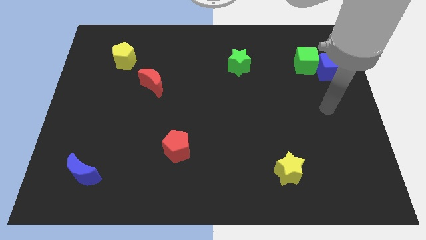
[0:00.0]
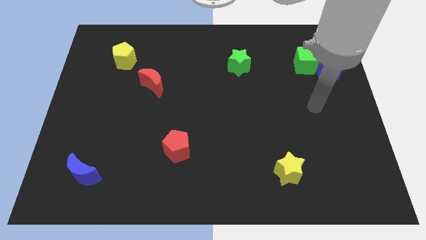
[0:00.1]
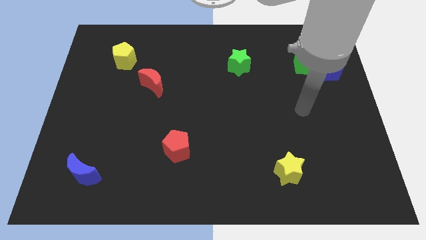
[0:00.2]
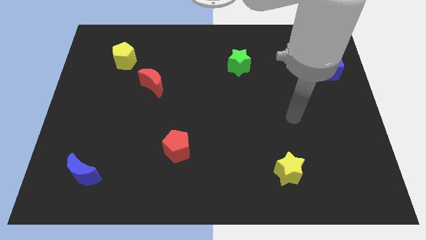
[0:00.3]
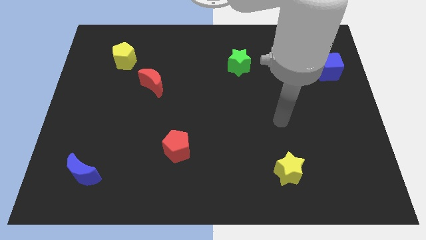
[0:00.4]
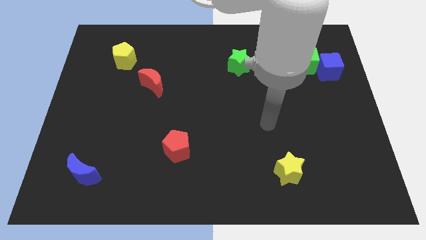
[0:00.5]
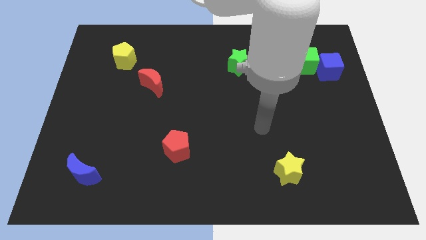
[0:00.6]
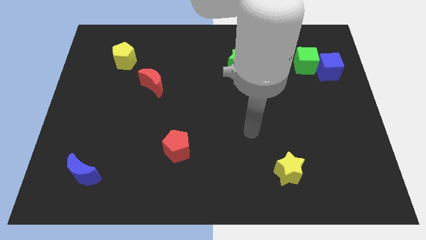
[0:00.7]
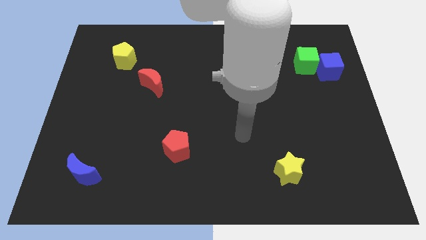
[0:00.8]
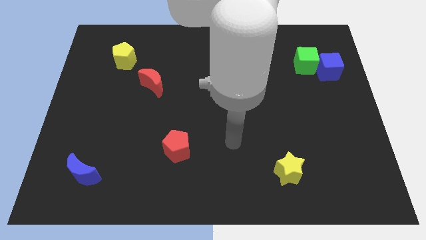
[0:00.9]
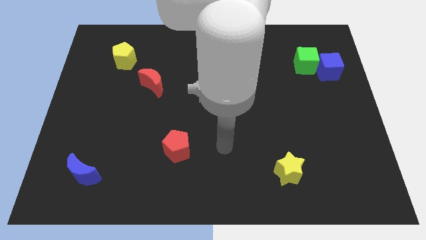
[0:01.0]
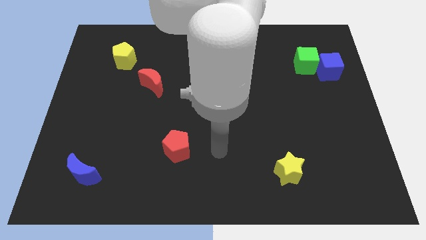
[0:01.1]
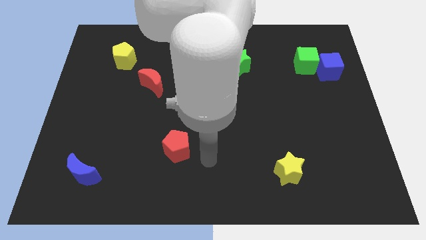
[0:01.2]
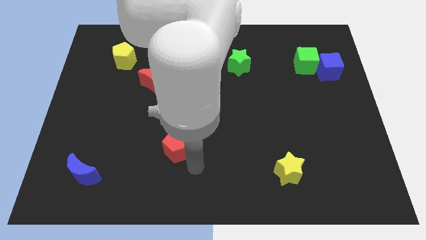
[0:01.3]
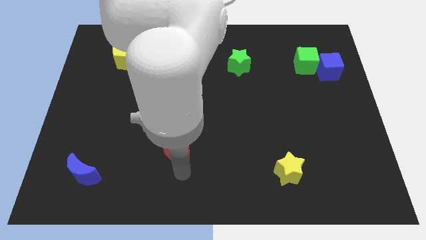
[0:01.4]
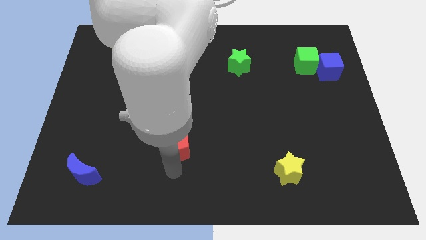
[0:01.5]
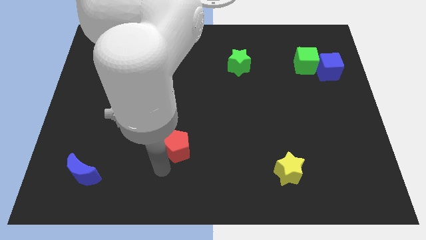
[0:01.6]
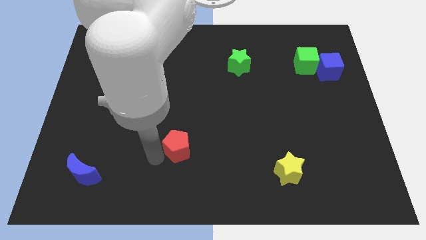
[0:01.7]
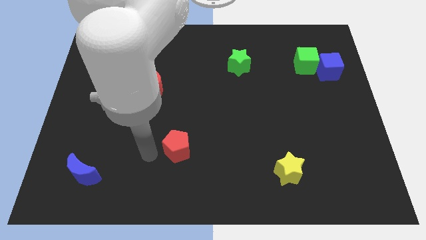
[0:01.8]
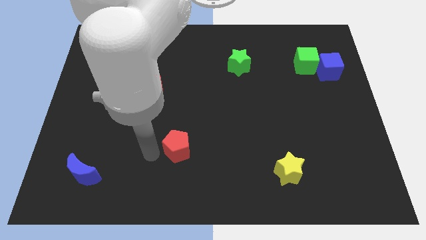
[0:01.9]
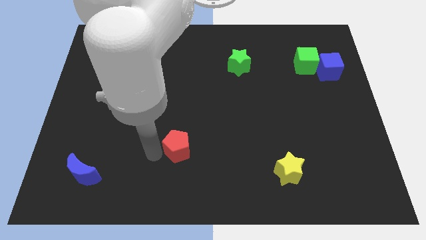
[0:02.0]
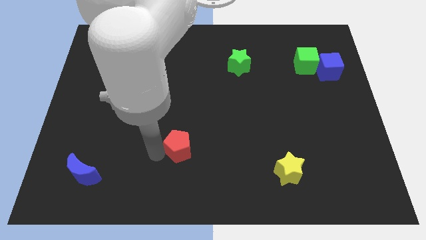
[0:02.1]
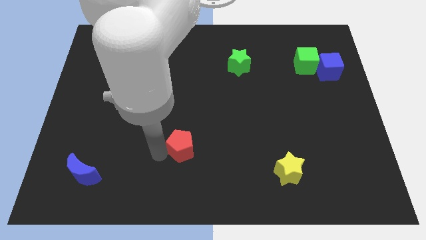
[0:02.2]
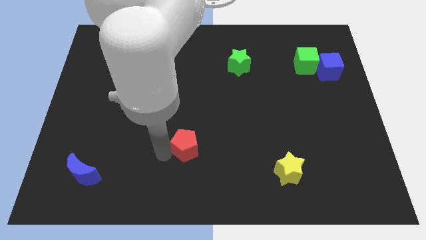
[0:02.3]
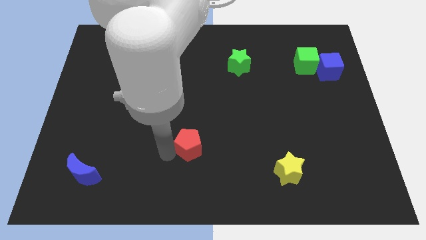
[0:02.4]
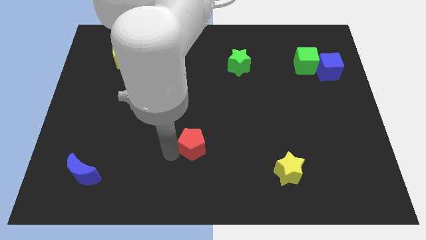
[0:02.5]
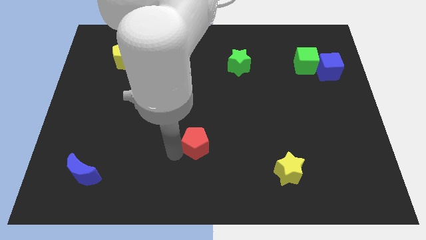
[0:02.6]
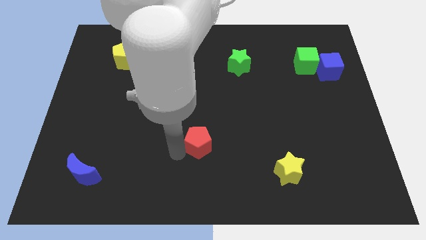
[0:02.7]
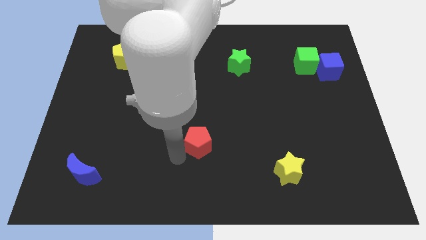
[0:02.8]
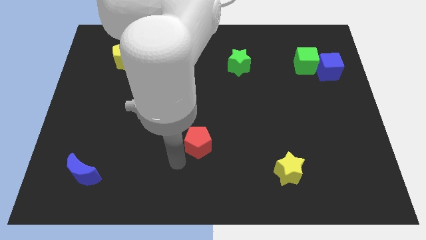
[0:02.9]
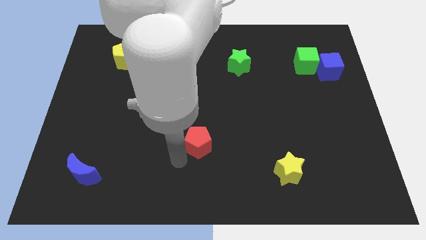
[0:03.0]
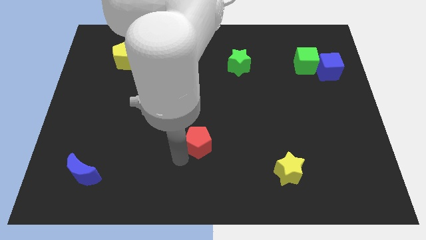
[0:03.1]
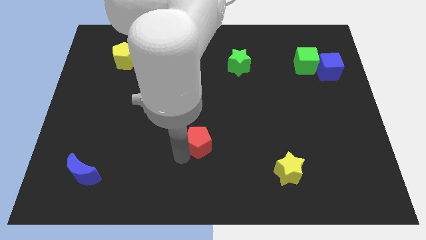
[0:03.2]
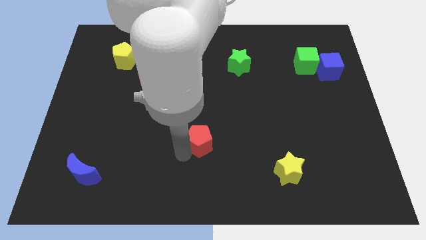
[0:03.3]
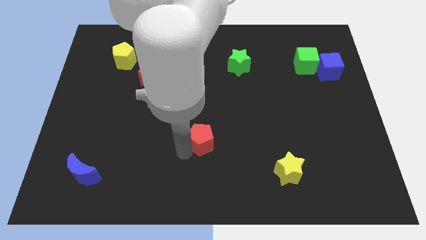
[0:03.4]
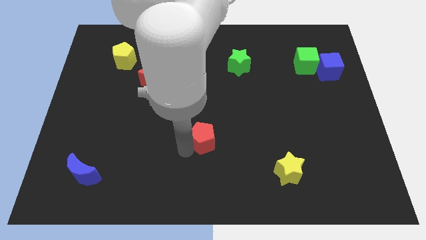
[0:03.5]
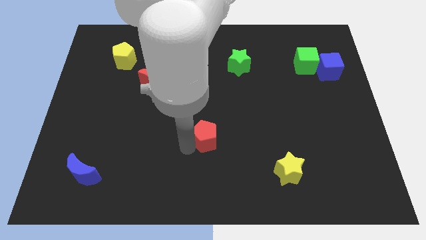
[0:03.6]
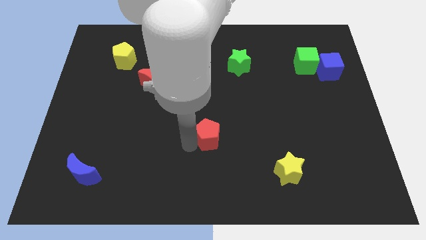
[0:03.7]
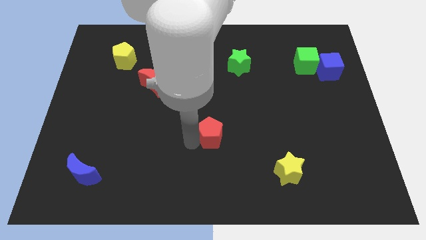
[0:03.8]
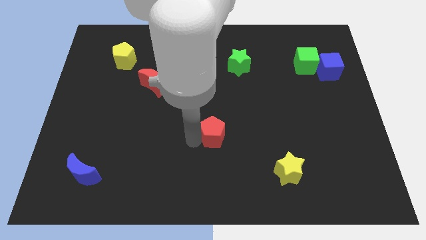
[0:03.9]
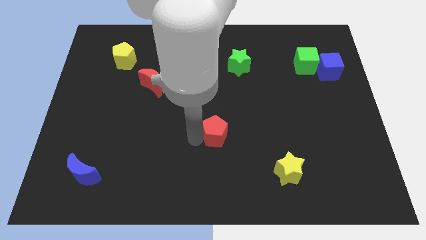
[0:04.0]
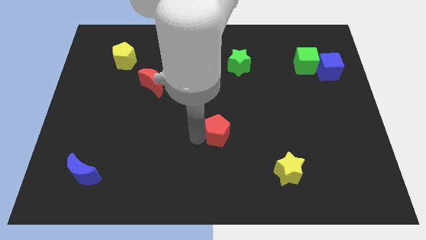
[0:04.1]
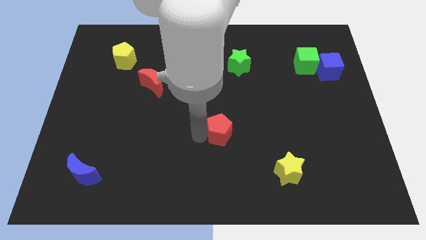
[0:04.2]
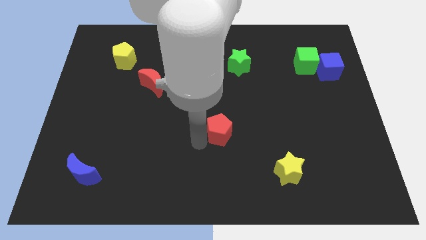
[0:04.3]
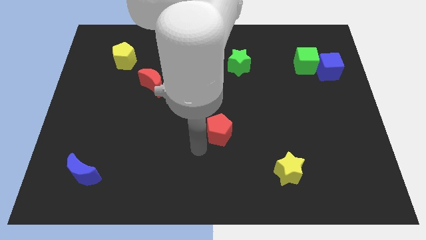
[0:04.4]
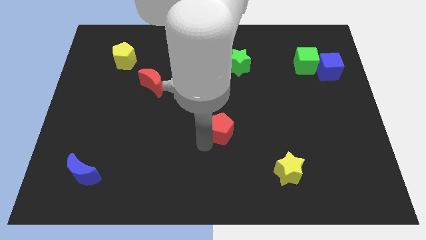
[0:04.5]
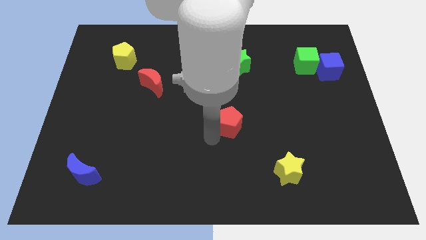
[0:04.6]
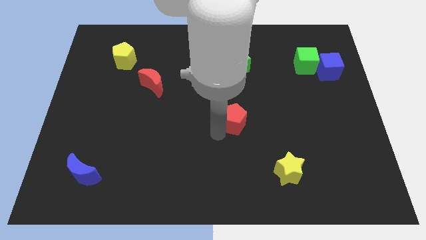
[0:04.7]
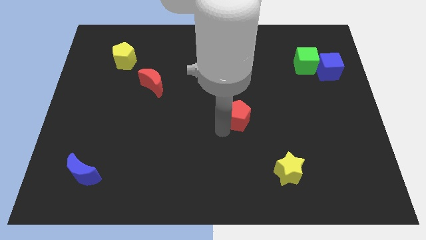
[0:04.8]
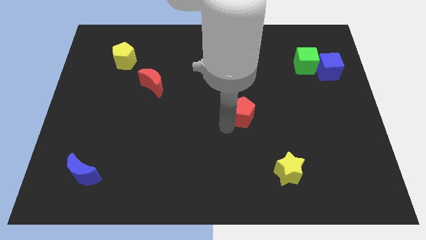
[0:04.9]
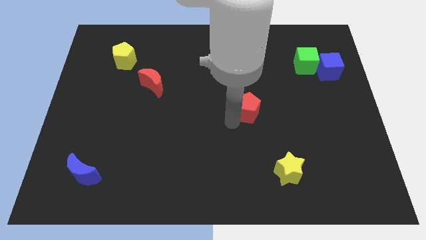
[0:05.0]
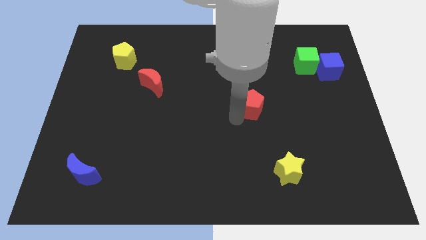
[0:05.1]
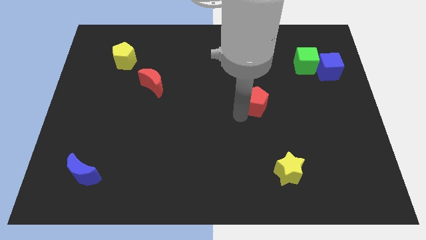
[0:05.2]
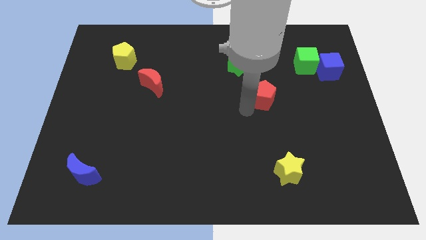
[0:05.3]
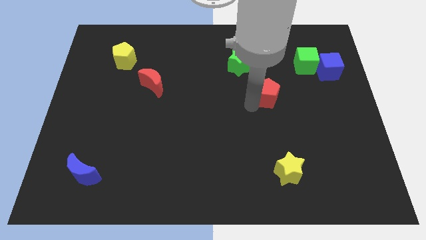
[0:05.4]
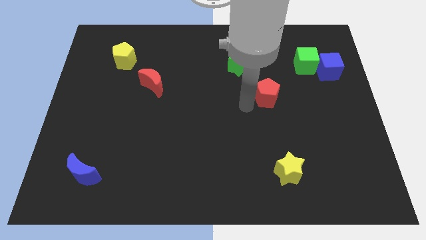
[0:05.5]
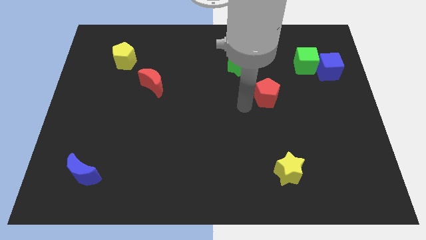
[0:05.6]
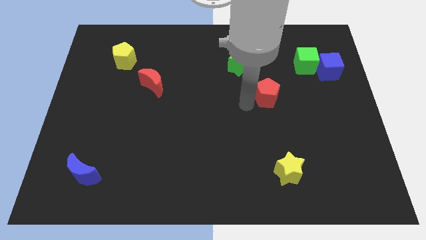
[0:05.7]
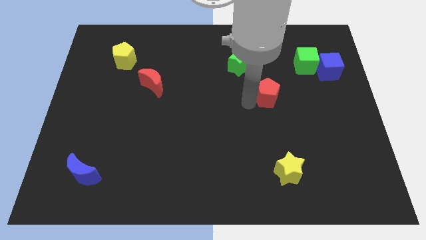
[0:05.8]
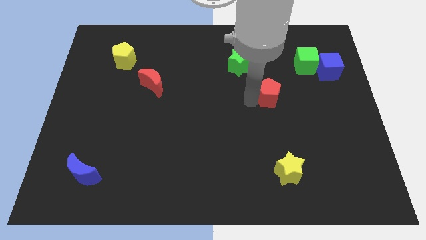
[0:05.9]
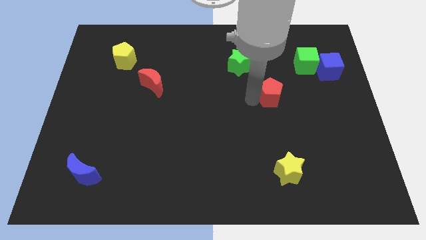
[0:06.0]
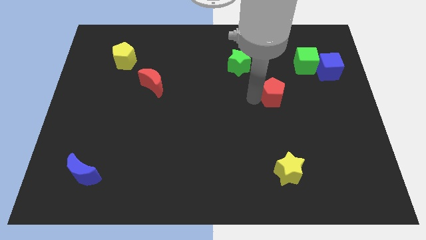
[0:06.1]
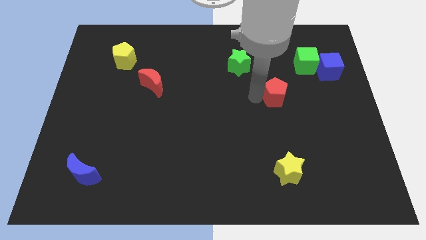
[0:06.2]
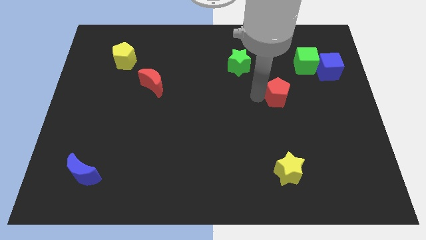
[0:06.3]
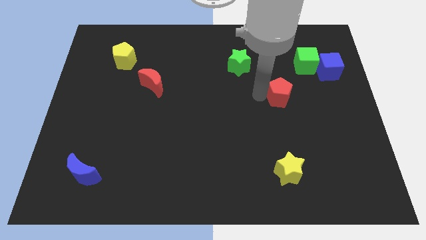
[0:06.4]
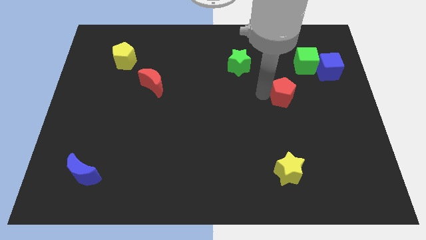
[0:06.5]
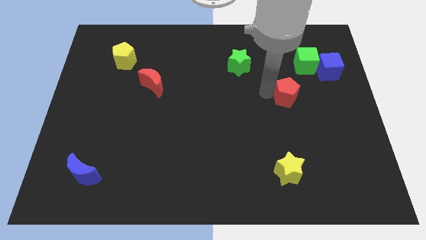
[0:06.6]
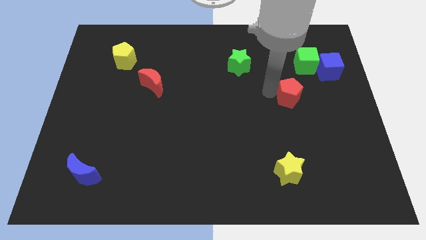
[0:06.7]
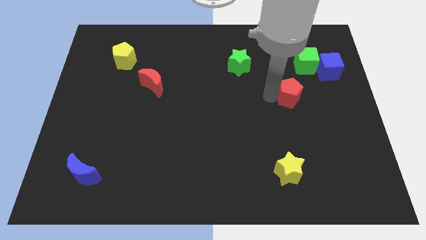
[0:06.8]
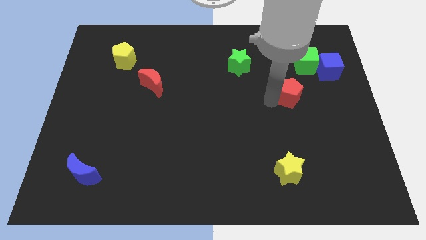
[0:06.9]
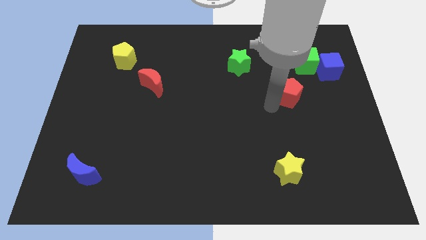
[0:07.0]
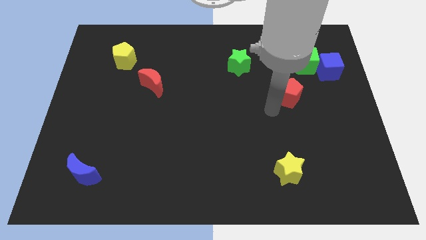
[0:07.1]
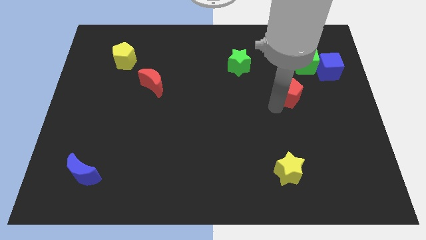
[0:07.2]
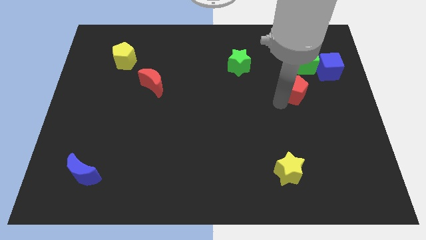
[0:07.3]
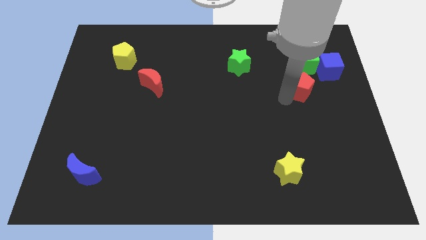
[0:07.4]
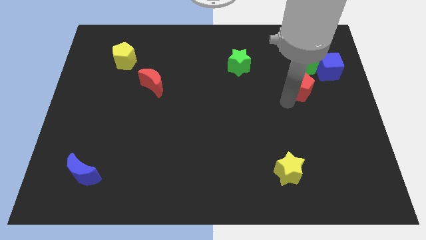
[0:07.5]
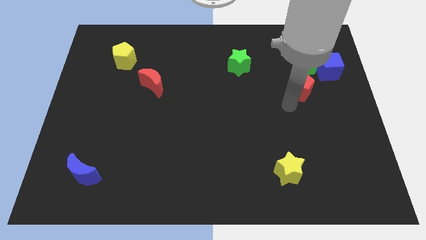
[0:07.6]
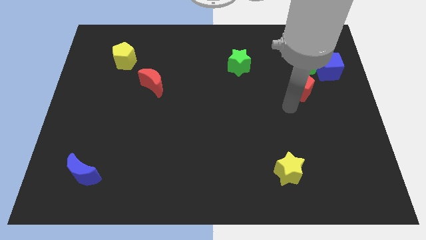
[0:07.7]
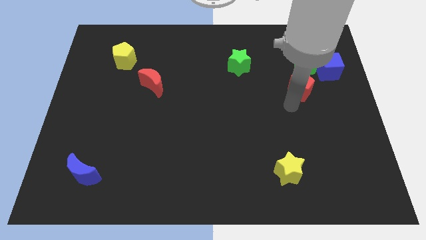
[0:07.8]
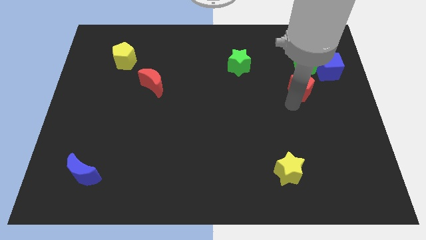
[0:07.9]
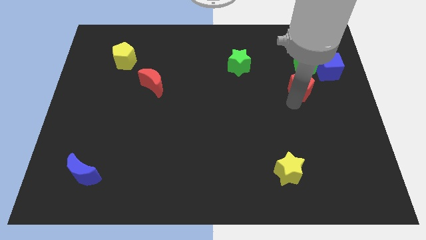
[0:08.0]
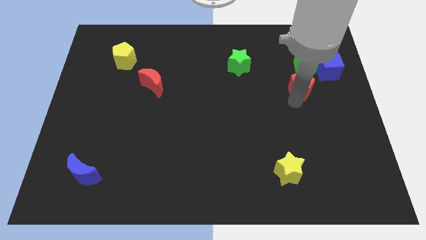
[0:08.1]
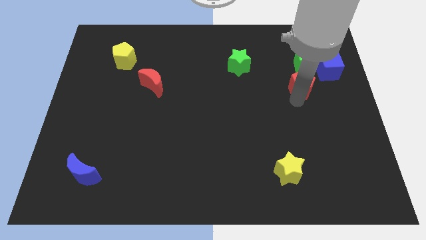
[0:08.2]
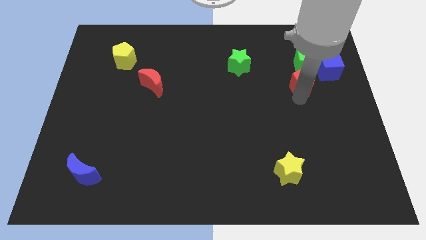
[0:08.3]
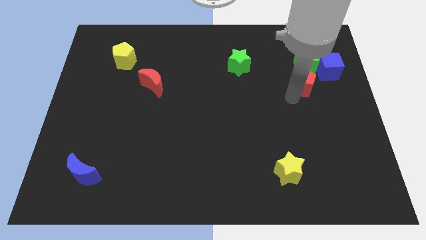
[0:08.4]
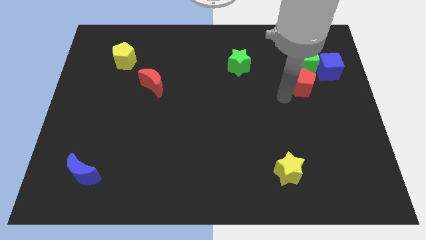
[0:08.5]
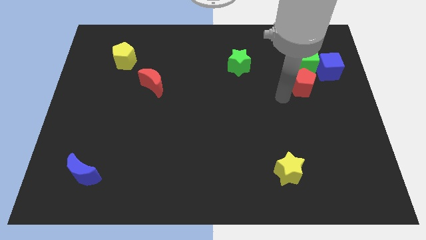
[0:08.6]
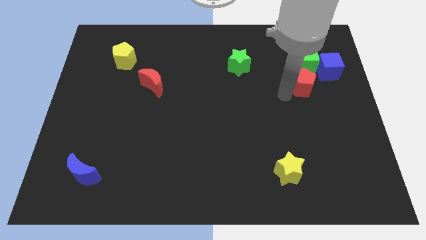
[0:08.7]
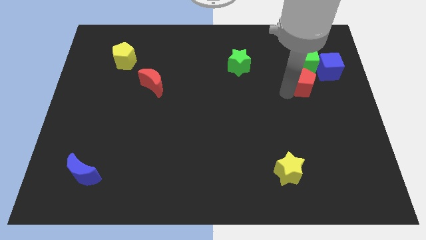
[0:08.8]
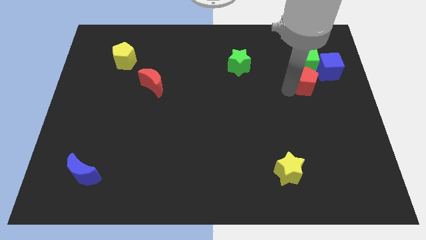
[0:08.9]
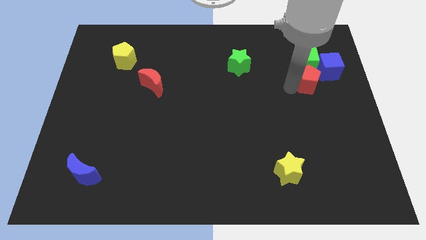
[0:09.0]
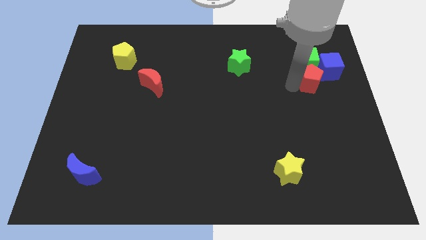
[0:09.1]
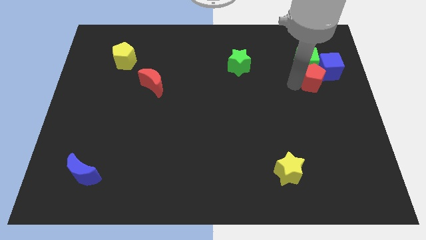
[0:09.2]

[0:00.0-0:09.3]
push the red pentagon close to the blue cube
